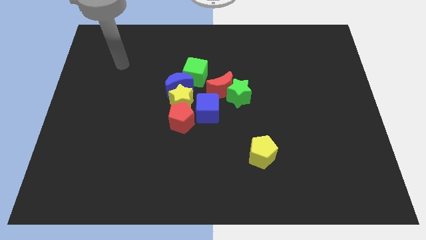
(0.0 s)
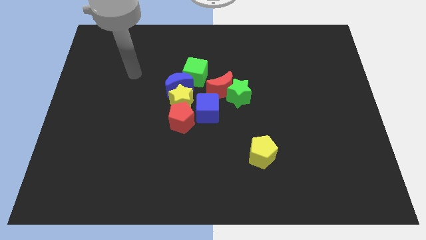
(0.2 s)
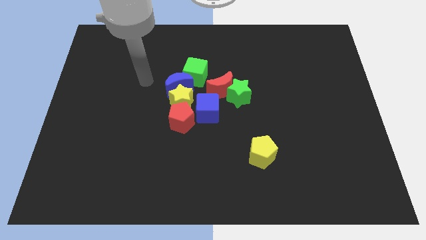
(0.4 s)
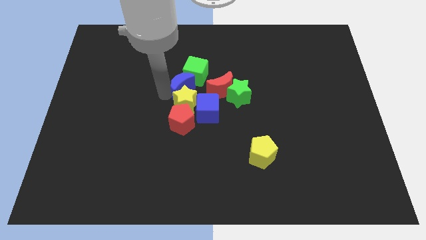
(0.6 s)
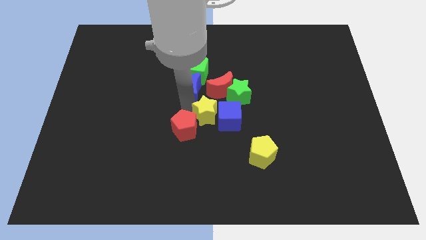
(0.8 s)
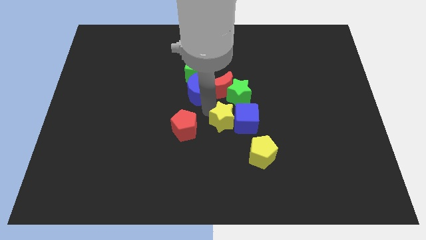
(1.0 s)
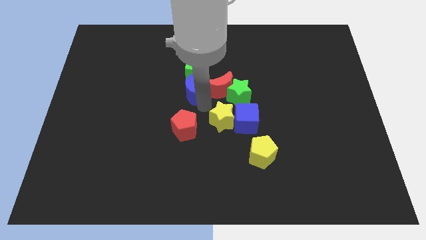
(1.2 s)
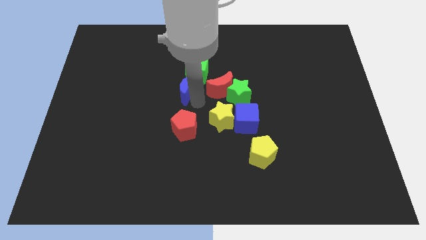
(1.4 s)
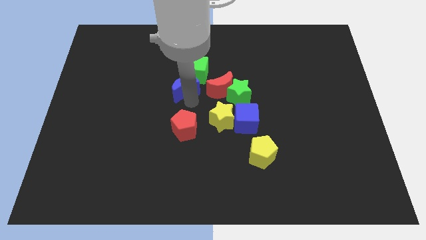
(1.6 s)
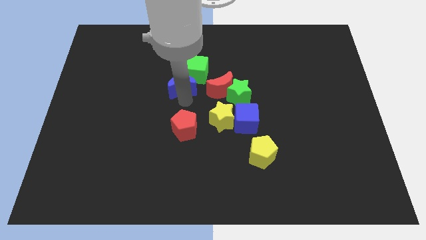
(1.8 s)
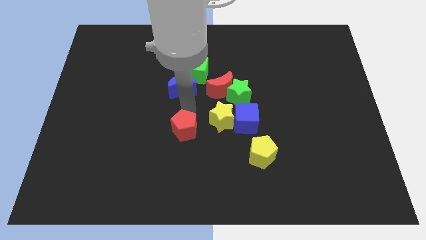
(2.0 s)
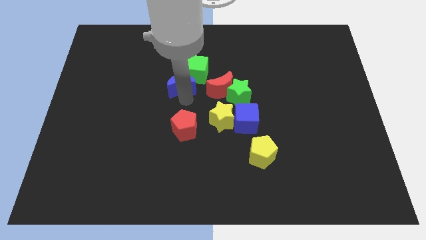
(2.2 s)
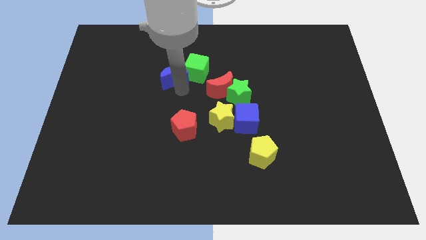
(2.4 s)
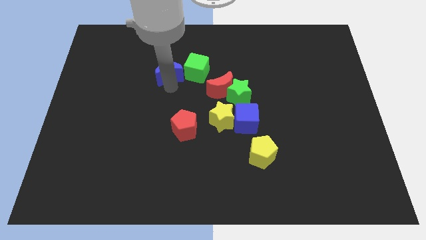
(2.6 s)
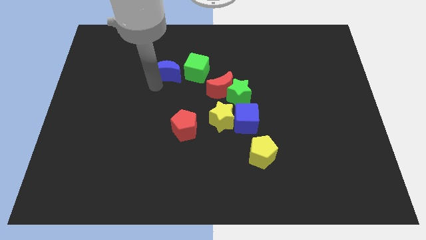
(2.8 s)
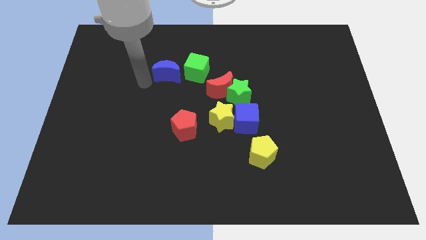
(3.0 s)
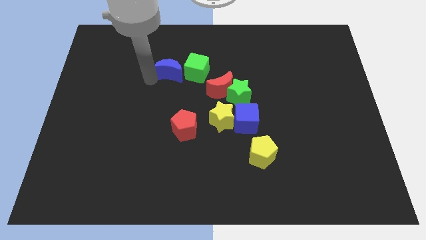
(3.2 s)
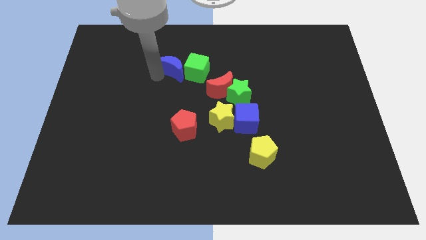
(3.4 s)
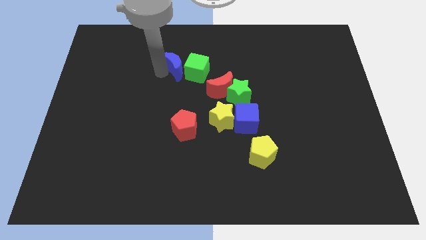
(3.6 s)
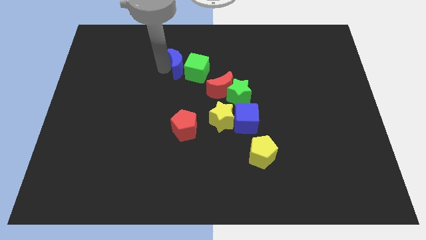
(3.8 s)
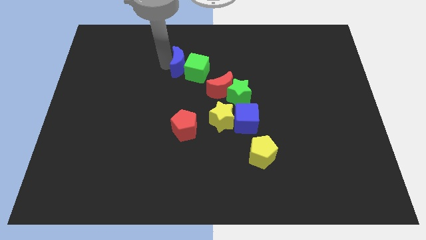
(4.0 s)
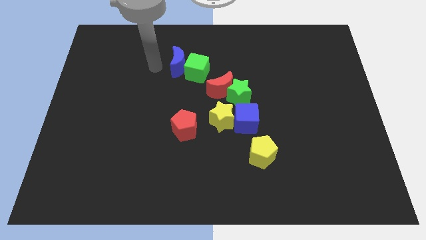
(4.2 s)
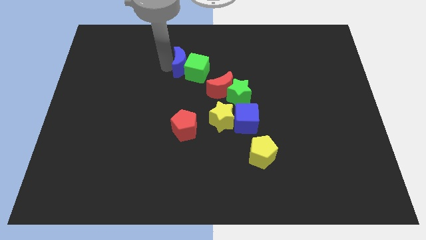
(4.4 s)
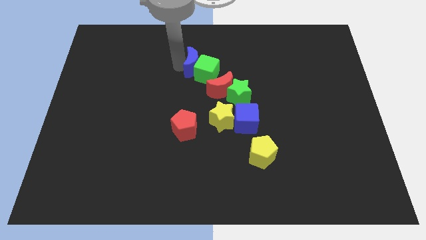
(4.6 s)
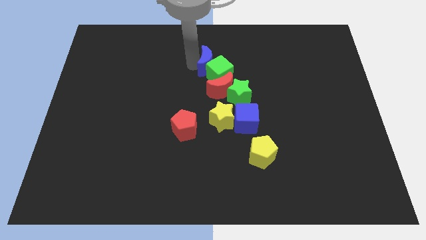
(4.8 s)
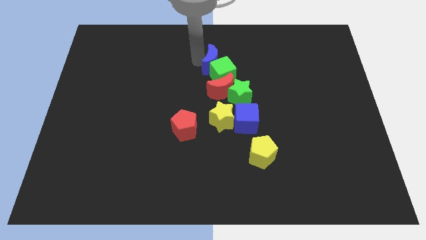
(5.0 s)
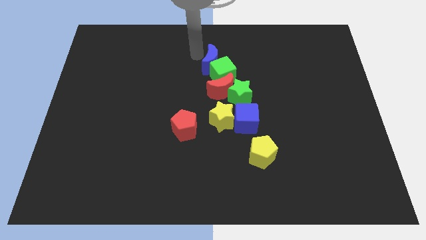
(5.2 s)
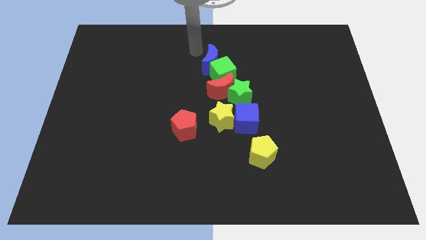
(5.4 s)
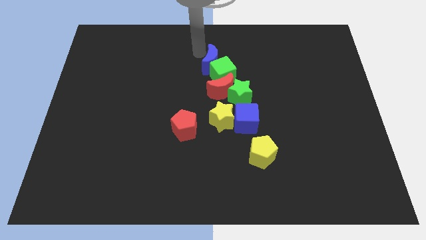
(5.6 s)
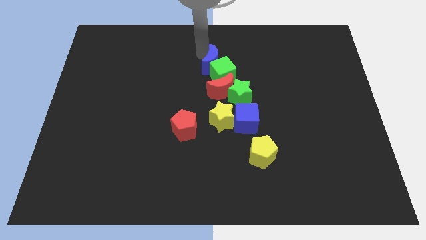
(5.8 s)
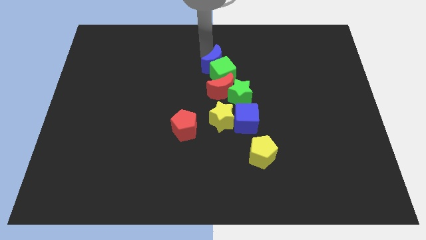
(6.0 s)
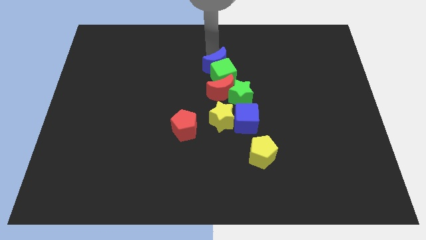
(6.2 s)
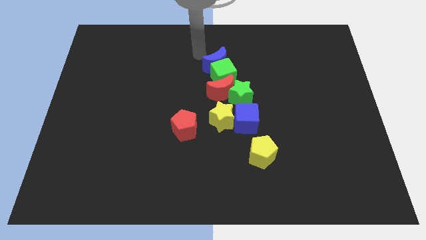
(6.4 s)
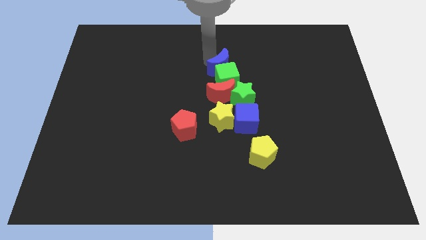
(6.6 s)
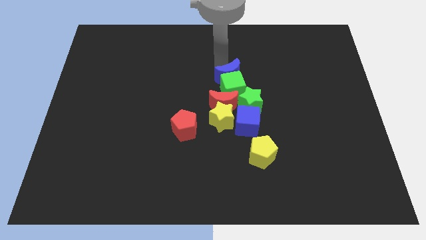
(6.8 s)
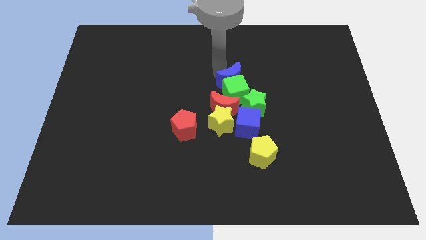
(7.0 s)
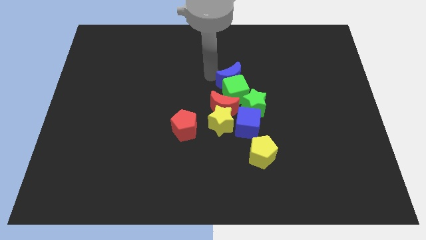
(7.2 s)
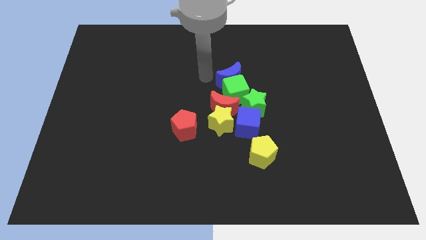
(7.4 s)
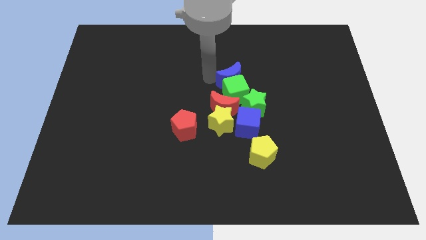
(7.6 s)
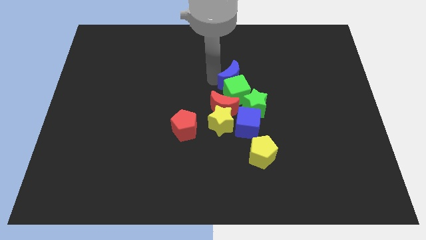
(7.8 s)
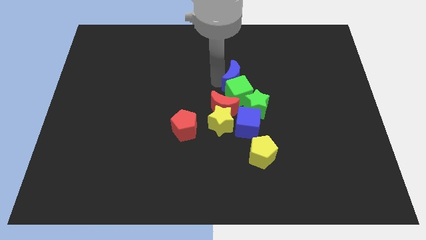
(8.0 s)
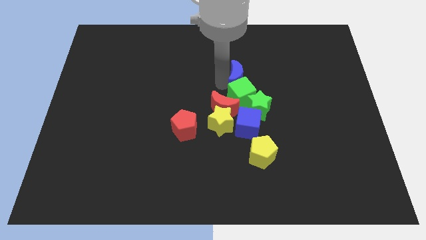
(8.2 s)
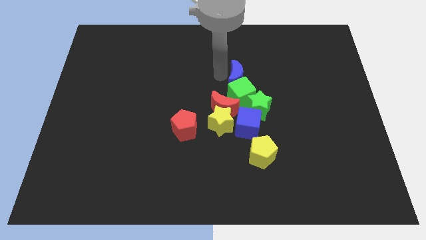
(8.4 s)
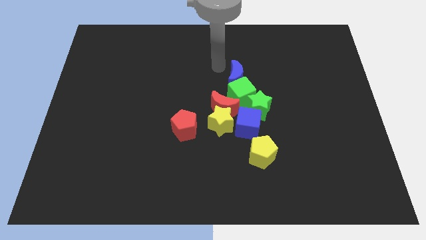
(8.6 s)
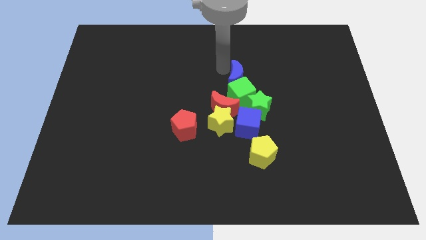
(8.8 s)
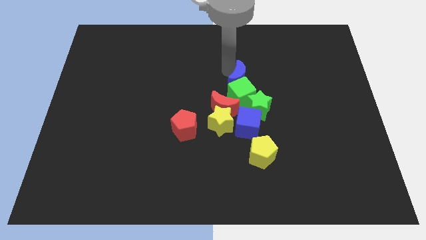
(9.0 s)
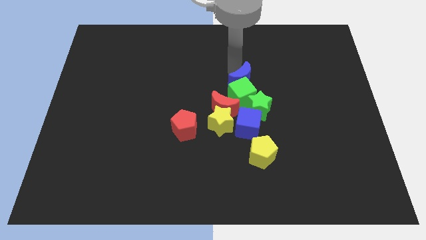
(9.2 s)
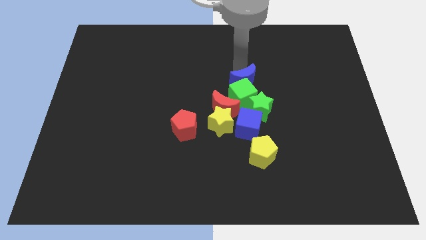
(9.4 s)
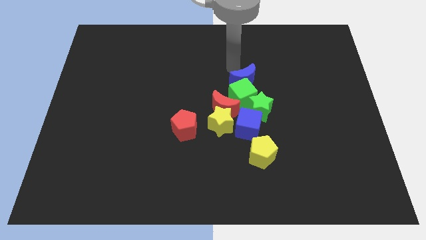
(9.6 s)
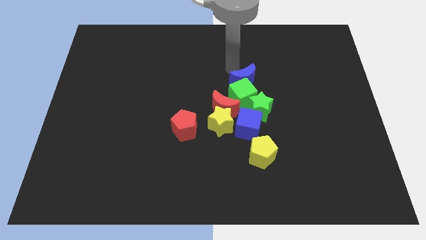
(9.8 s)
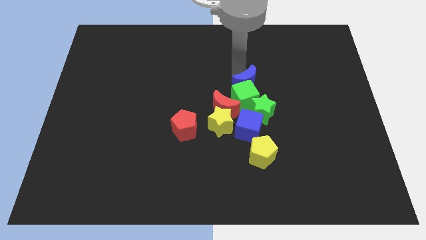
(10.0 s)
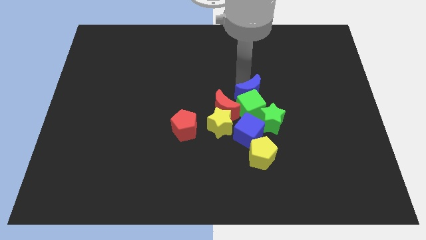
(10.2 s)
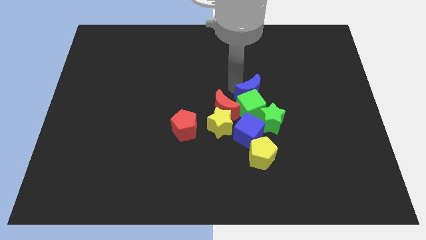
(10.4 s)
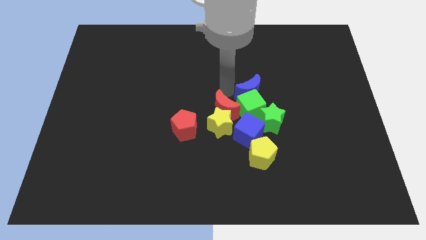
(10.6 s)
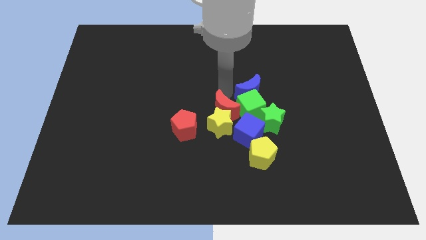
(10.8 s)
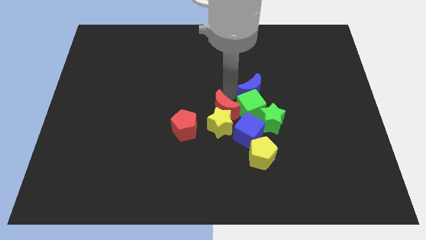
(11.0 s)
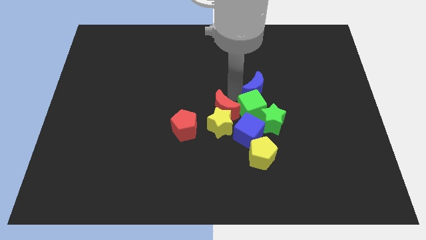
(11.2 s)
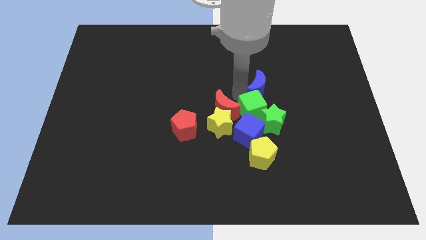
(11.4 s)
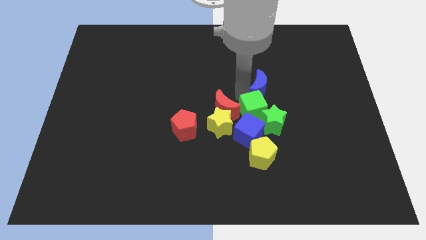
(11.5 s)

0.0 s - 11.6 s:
slide the blue moon right

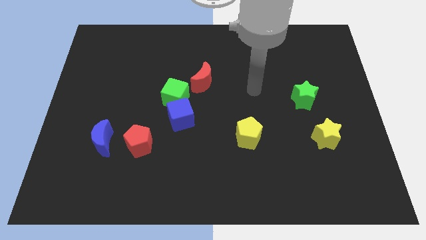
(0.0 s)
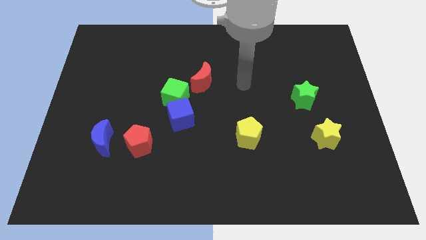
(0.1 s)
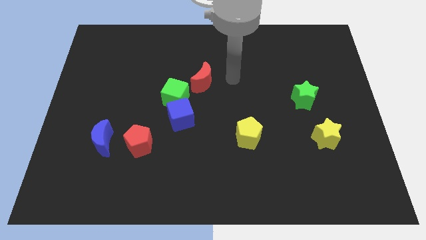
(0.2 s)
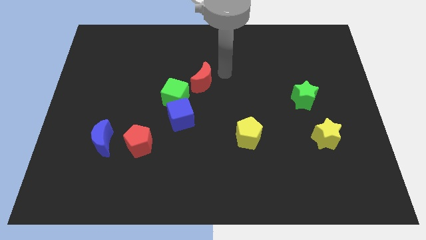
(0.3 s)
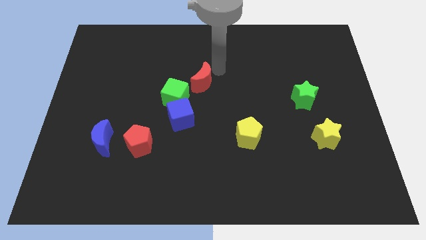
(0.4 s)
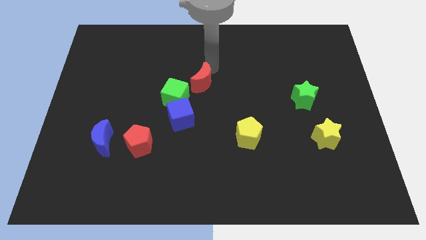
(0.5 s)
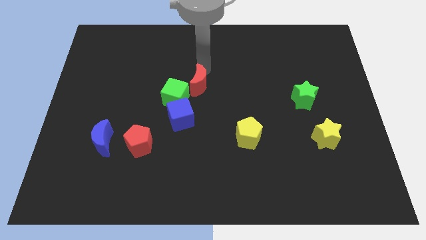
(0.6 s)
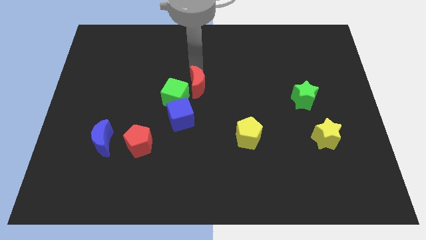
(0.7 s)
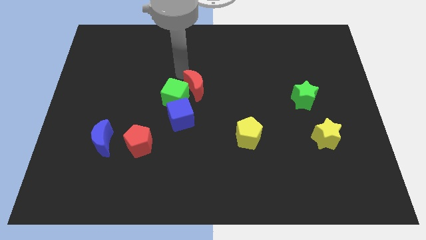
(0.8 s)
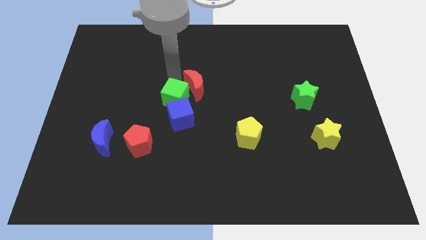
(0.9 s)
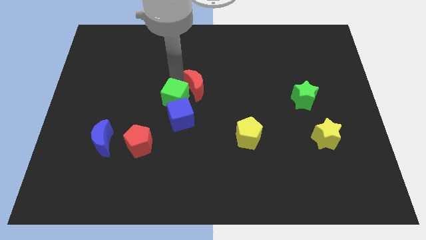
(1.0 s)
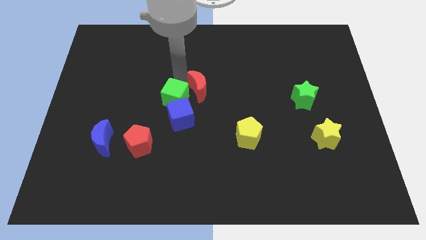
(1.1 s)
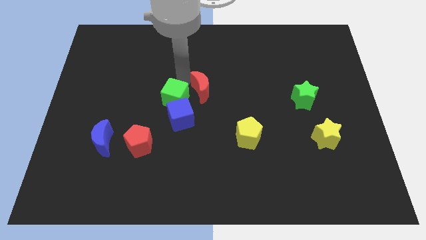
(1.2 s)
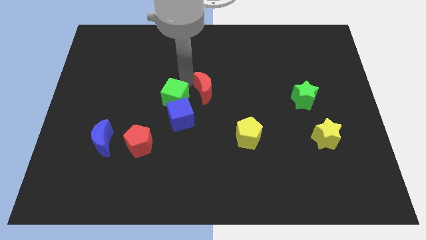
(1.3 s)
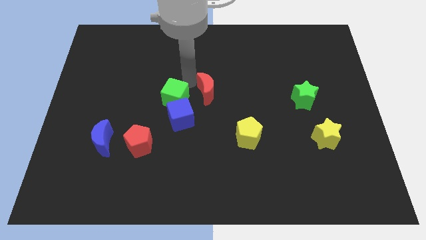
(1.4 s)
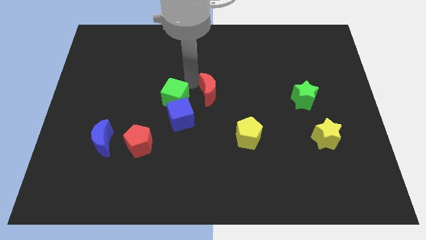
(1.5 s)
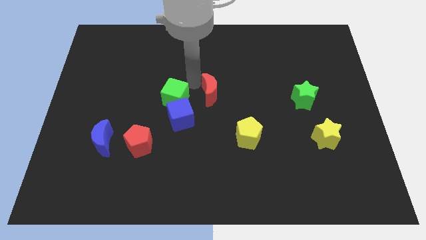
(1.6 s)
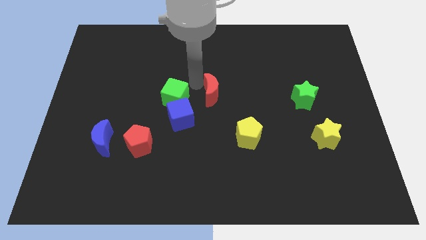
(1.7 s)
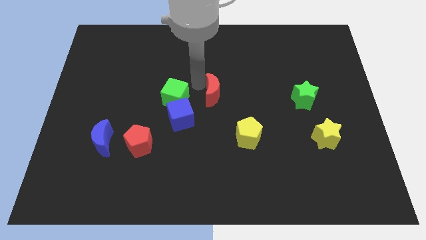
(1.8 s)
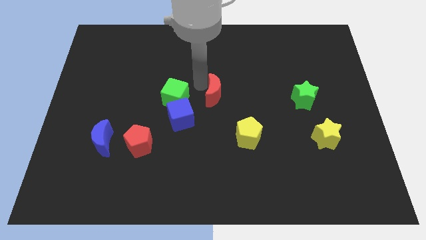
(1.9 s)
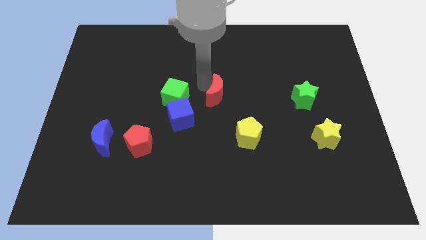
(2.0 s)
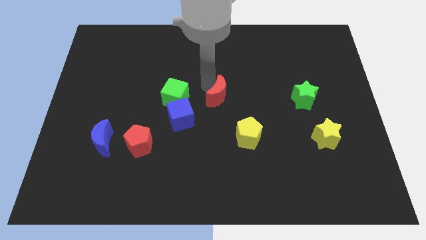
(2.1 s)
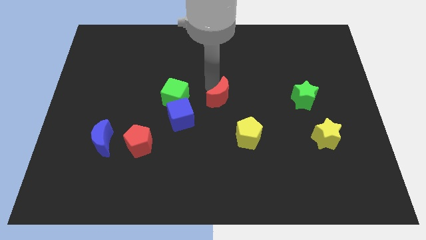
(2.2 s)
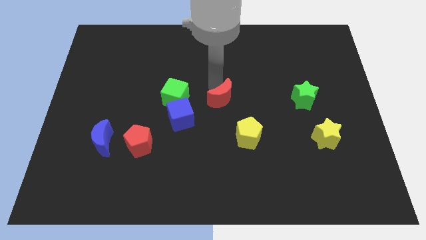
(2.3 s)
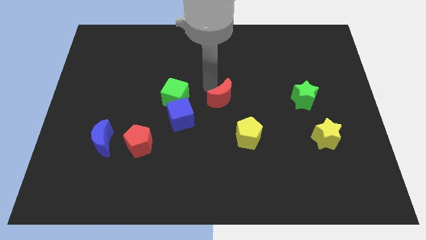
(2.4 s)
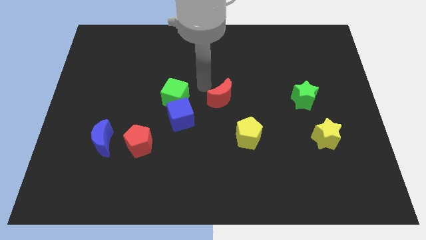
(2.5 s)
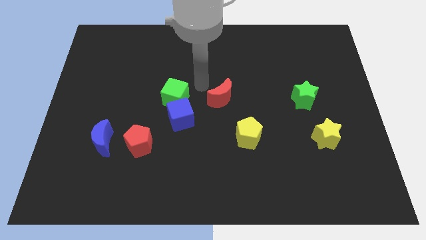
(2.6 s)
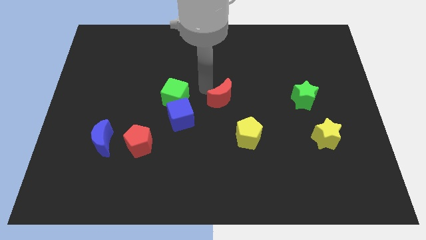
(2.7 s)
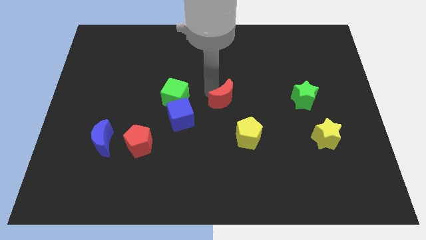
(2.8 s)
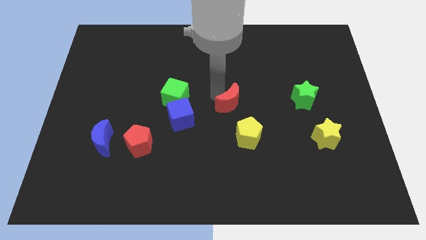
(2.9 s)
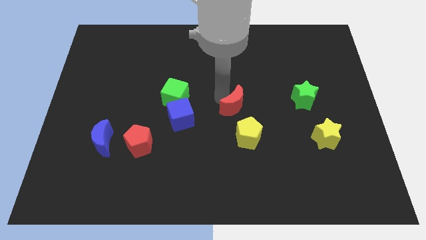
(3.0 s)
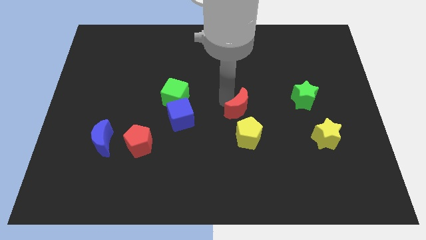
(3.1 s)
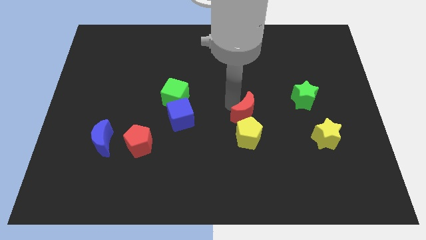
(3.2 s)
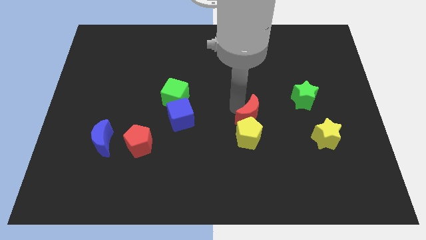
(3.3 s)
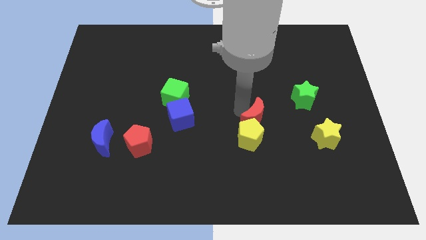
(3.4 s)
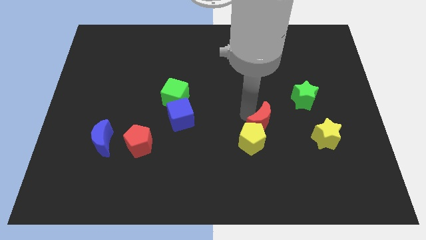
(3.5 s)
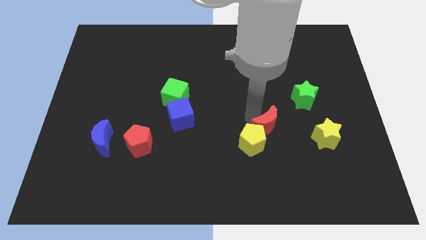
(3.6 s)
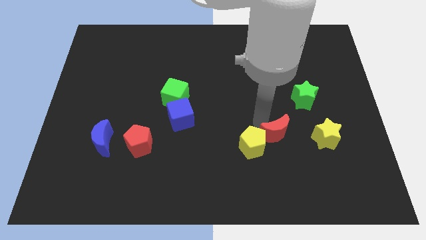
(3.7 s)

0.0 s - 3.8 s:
slide the red moon diagonally downwards and to the right
